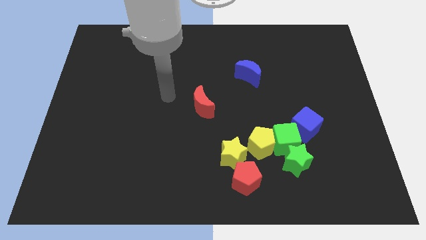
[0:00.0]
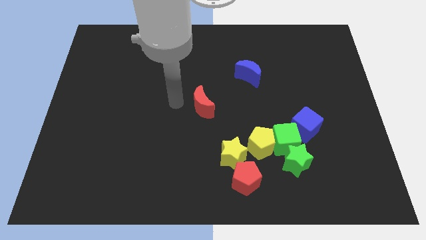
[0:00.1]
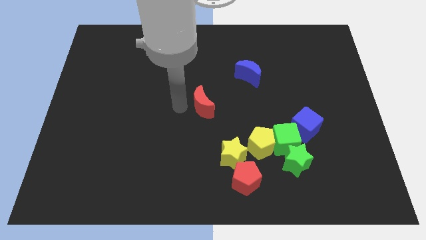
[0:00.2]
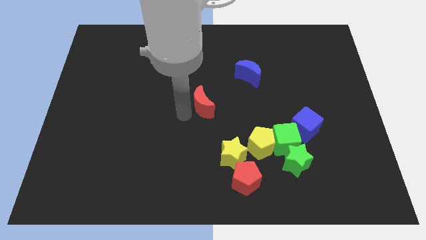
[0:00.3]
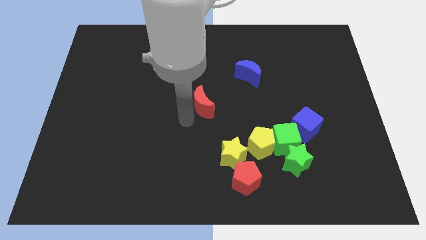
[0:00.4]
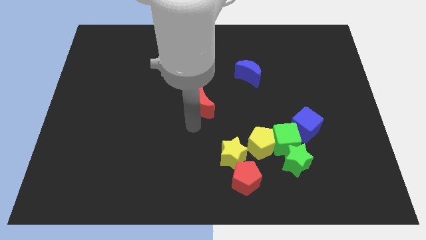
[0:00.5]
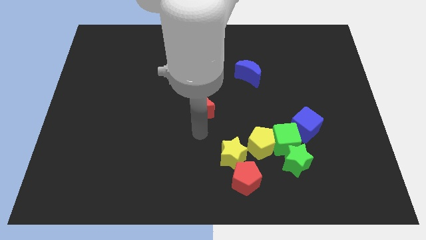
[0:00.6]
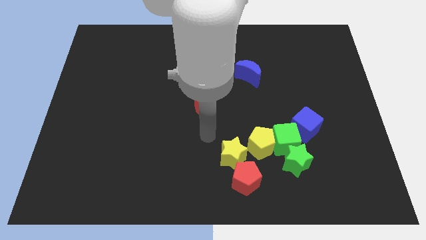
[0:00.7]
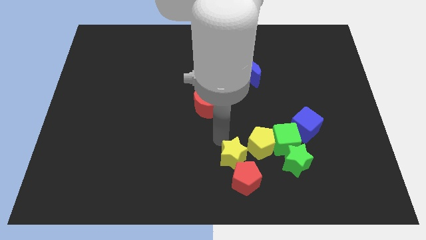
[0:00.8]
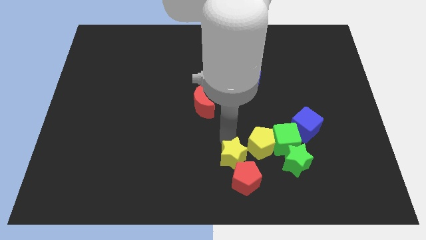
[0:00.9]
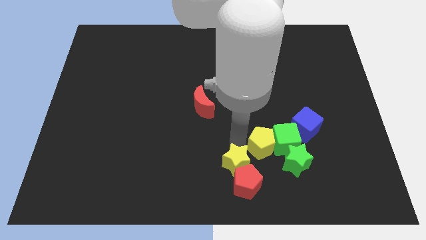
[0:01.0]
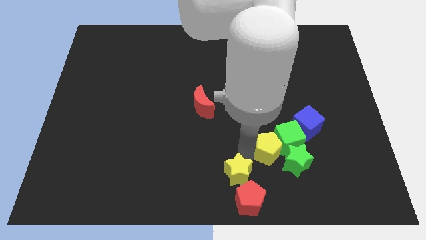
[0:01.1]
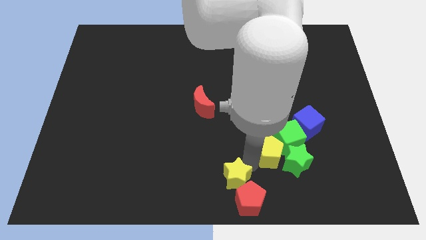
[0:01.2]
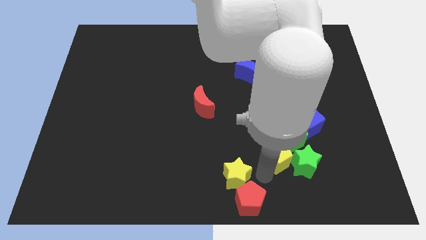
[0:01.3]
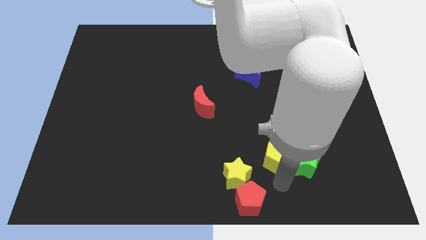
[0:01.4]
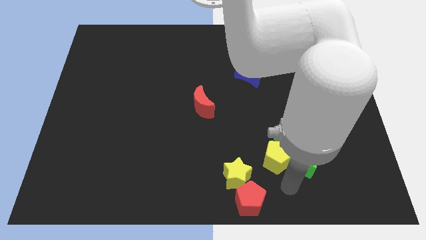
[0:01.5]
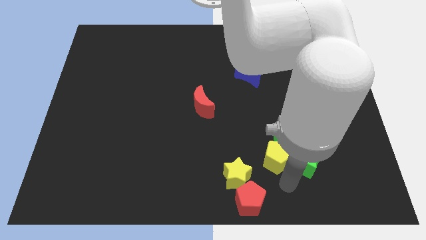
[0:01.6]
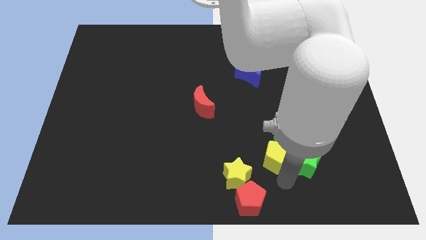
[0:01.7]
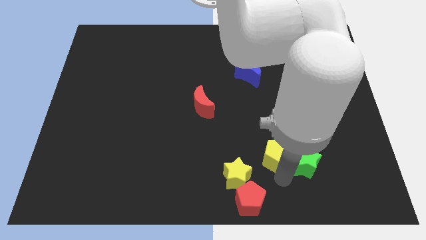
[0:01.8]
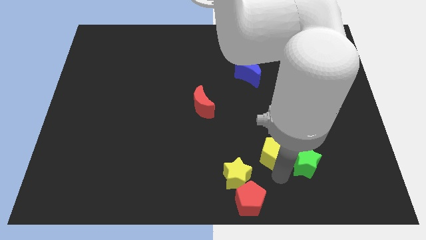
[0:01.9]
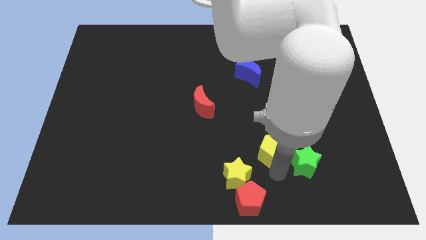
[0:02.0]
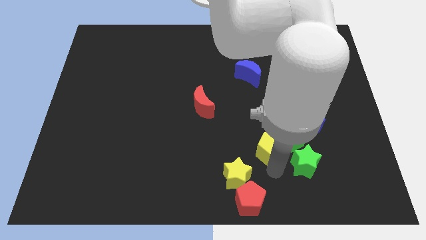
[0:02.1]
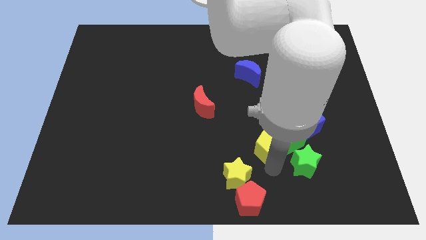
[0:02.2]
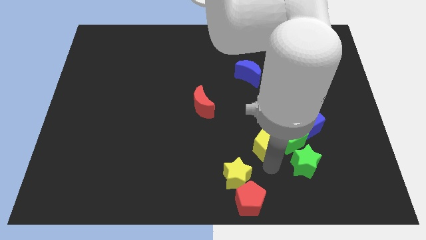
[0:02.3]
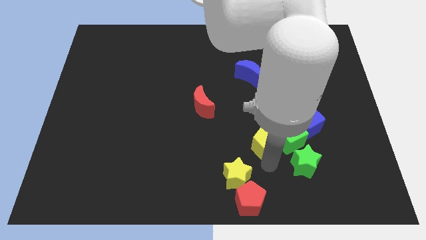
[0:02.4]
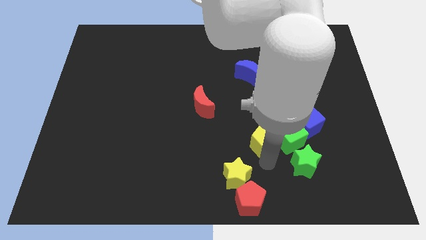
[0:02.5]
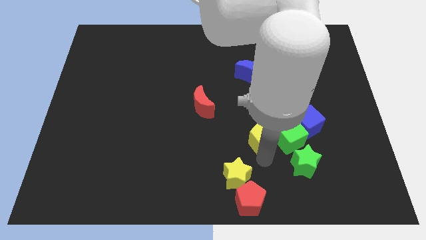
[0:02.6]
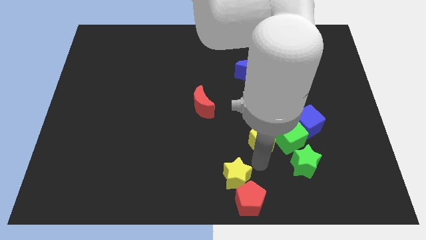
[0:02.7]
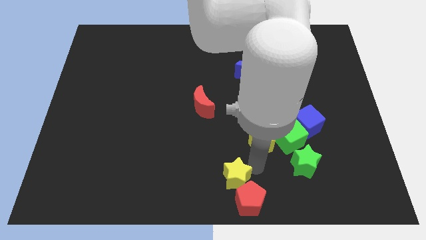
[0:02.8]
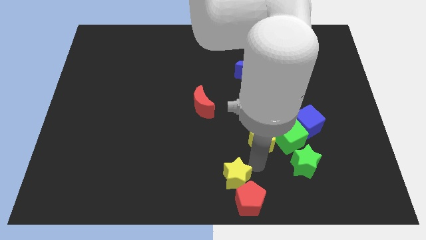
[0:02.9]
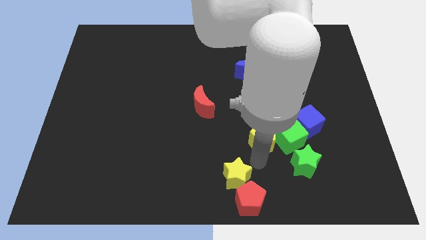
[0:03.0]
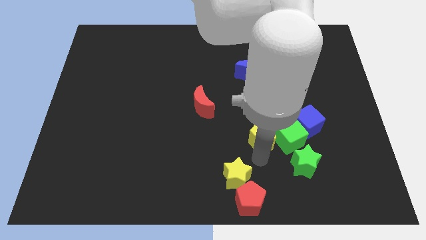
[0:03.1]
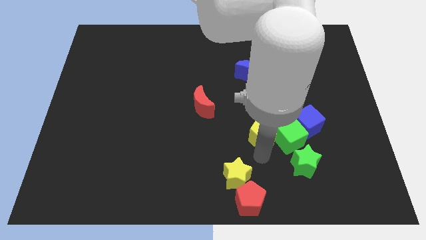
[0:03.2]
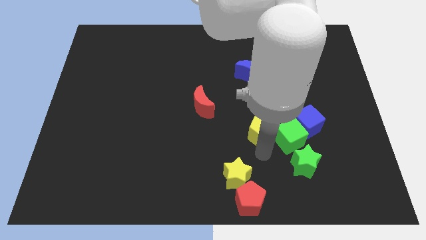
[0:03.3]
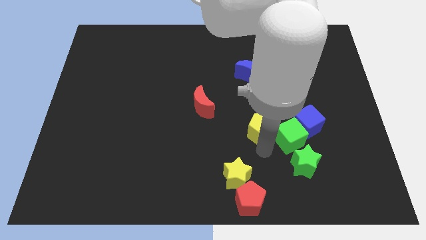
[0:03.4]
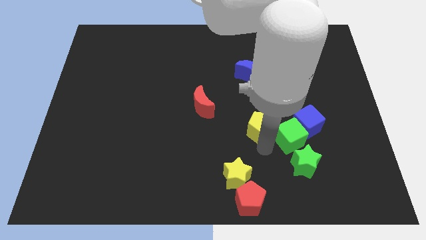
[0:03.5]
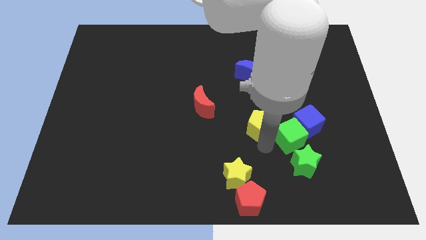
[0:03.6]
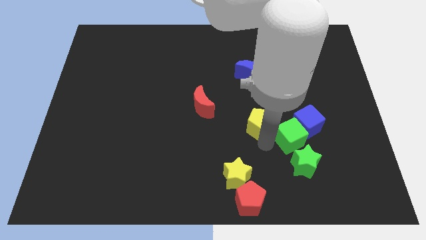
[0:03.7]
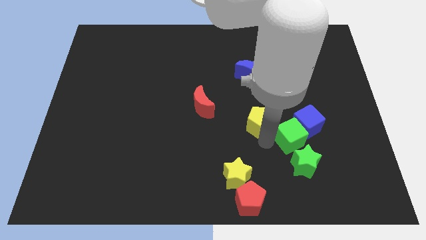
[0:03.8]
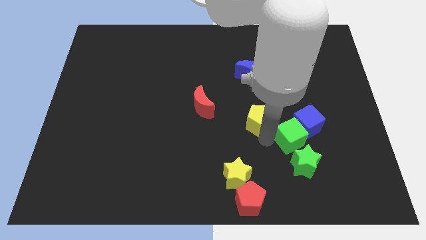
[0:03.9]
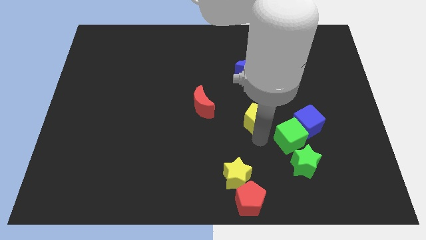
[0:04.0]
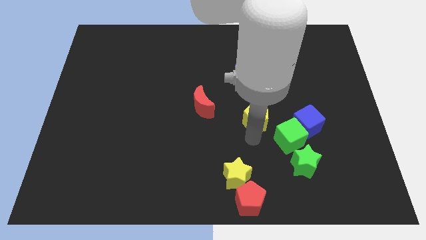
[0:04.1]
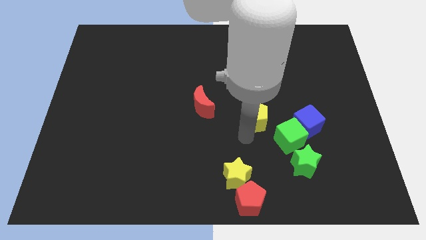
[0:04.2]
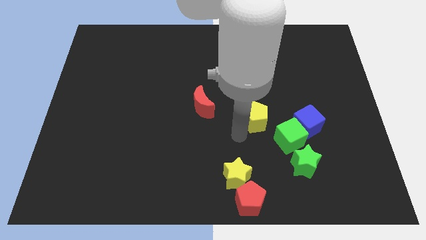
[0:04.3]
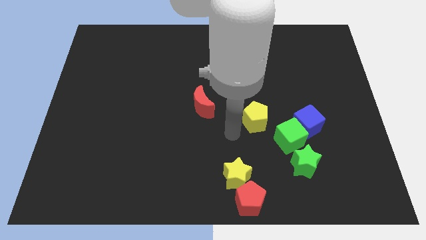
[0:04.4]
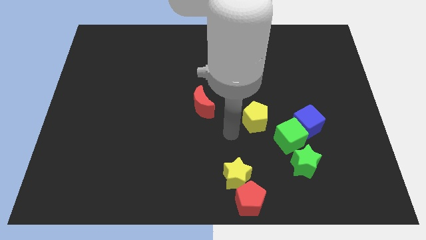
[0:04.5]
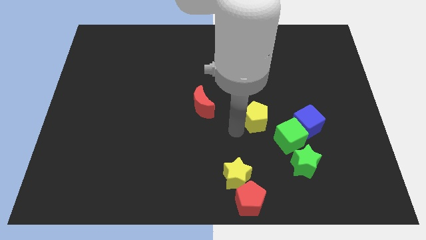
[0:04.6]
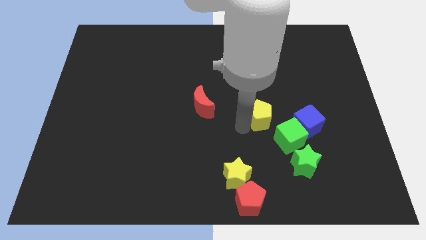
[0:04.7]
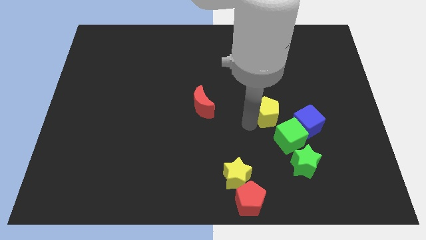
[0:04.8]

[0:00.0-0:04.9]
push the yellow pentagon to the top left side of the blue cube

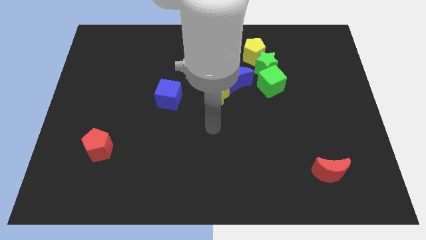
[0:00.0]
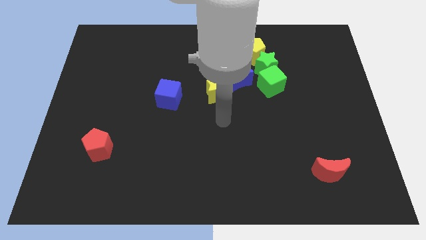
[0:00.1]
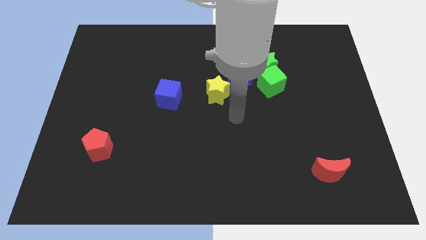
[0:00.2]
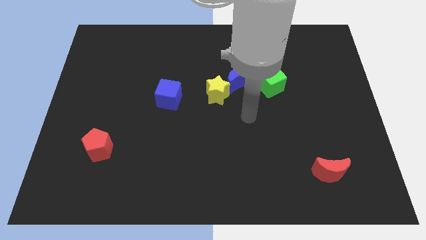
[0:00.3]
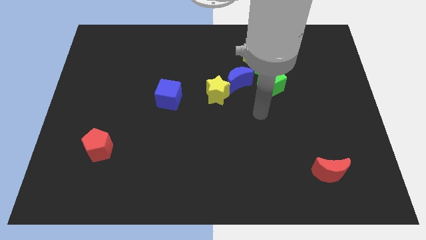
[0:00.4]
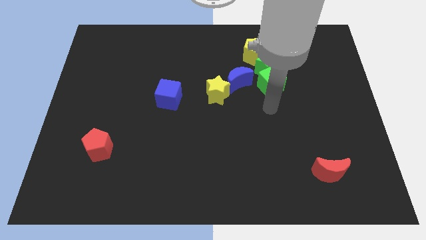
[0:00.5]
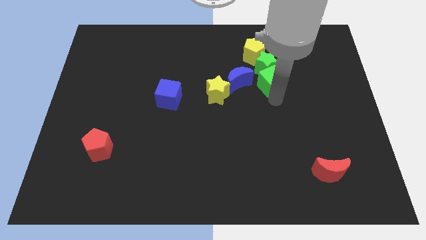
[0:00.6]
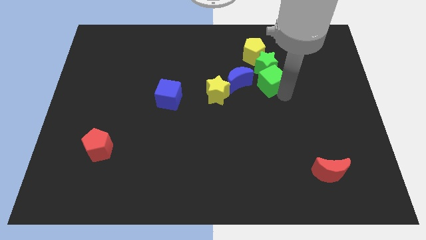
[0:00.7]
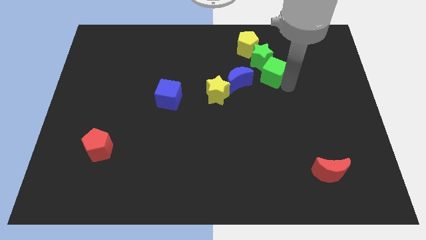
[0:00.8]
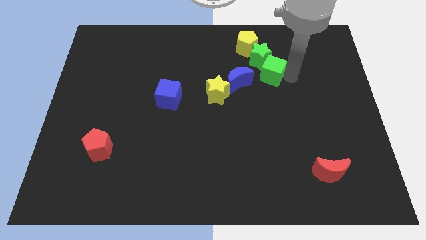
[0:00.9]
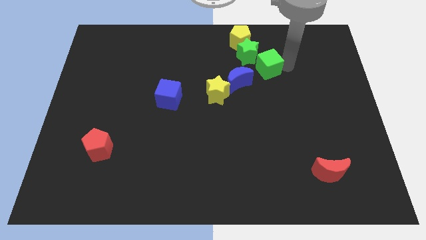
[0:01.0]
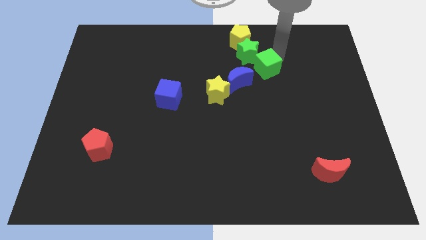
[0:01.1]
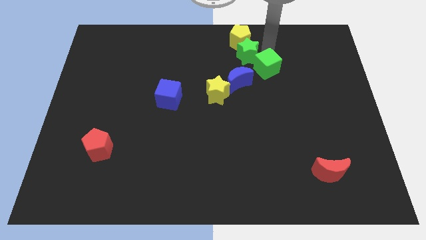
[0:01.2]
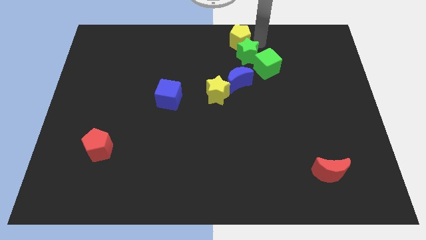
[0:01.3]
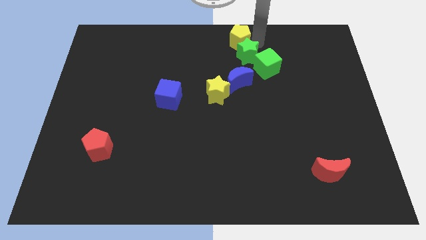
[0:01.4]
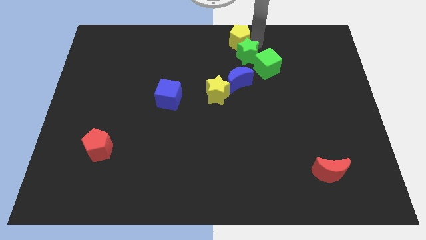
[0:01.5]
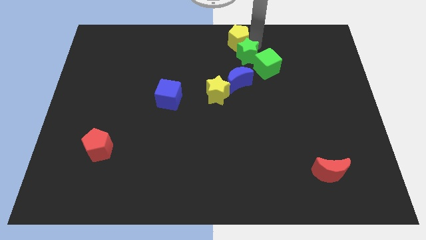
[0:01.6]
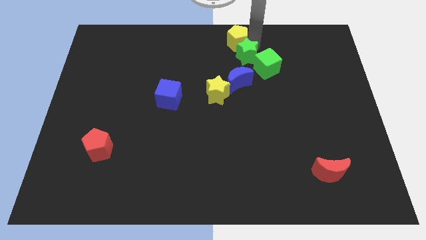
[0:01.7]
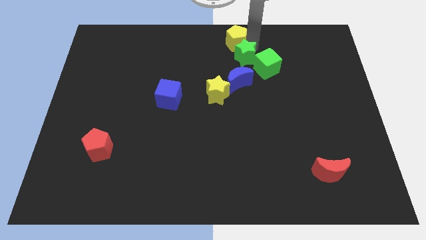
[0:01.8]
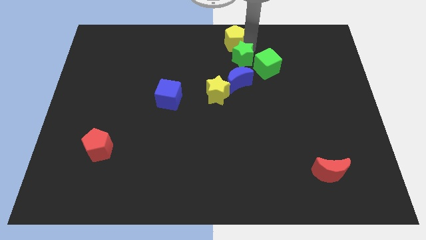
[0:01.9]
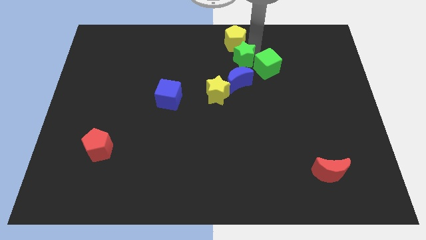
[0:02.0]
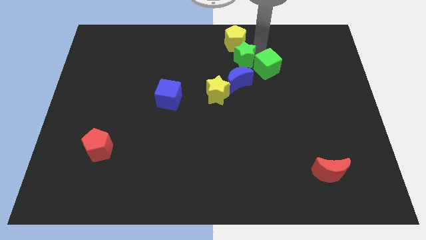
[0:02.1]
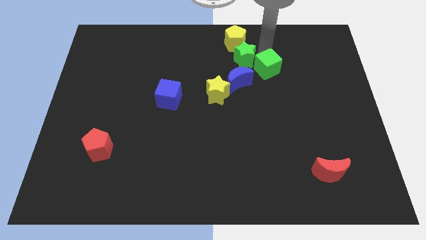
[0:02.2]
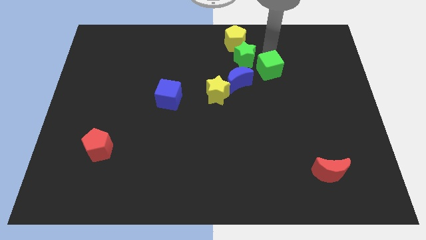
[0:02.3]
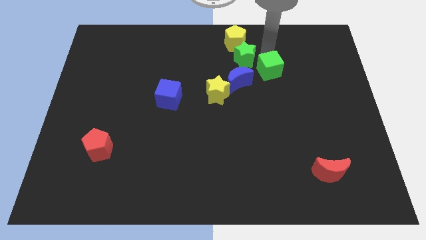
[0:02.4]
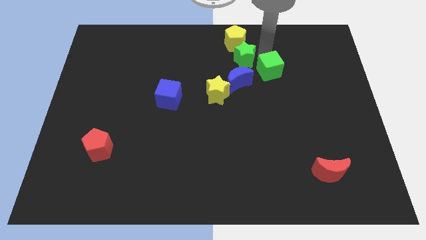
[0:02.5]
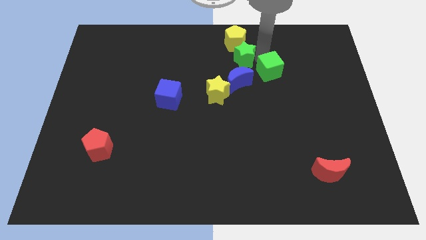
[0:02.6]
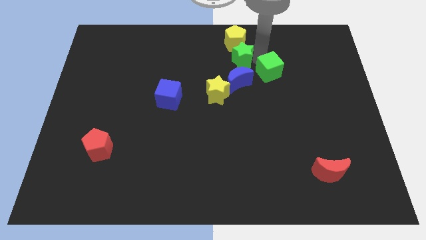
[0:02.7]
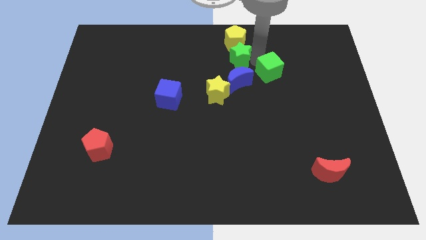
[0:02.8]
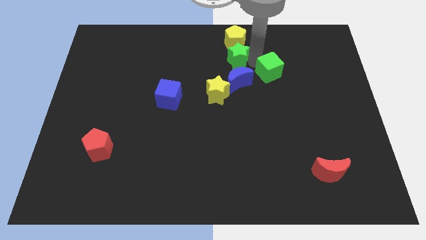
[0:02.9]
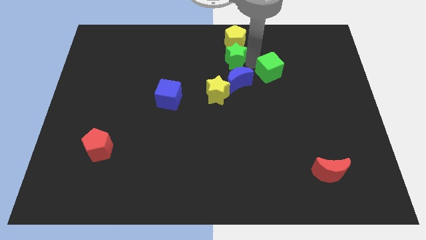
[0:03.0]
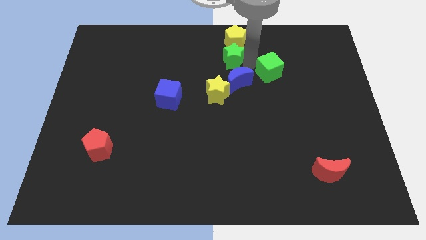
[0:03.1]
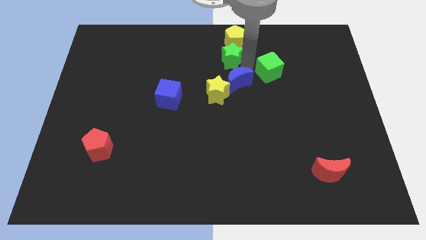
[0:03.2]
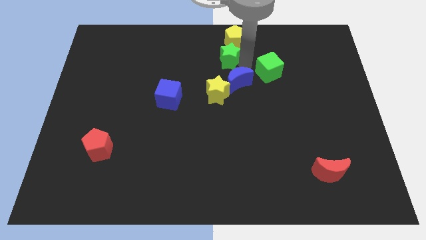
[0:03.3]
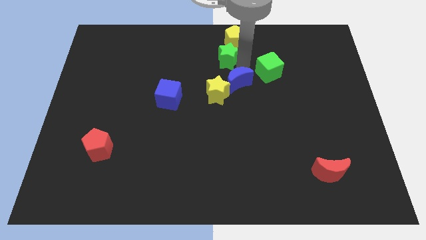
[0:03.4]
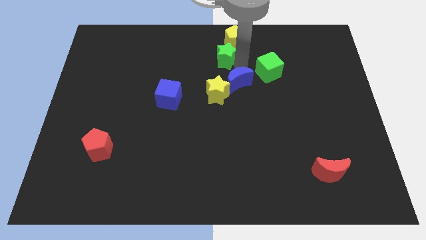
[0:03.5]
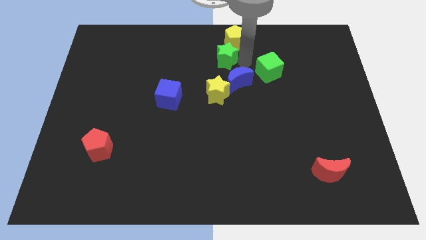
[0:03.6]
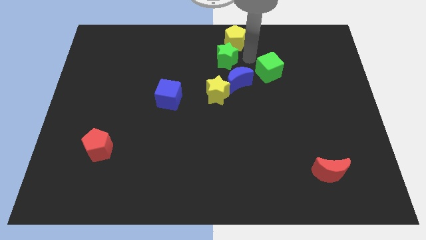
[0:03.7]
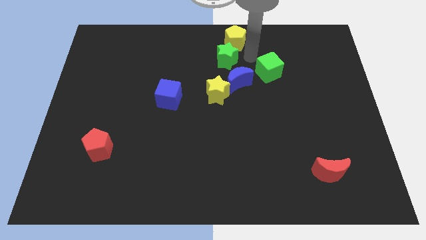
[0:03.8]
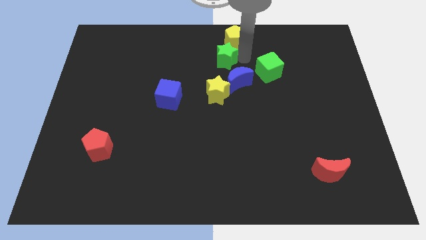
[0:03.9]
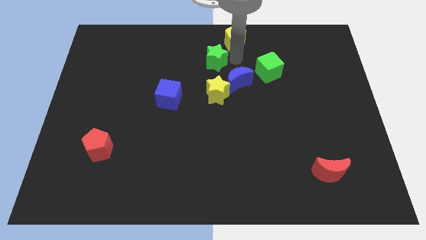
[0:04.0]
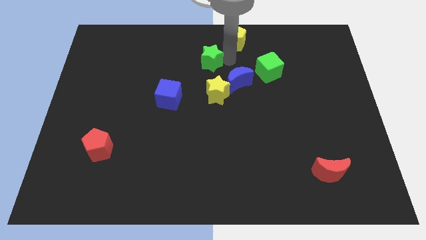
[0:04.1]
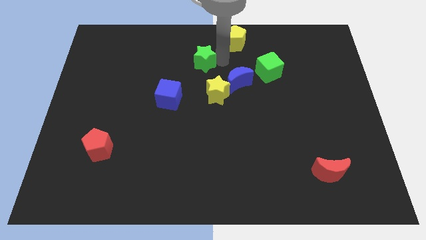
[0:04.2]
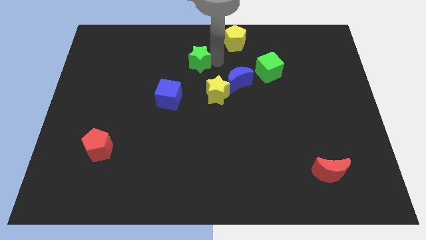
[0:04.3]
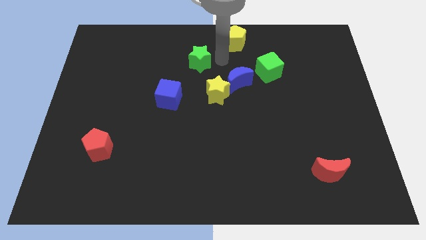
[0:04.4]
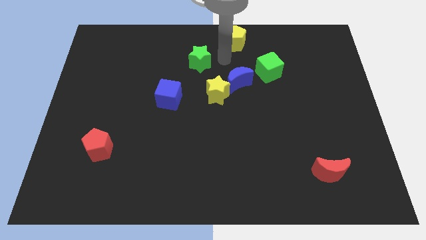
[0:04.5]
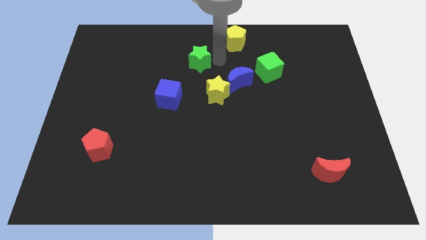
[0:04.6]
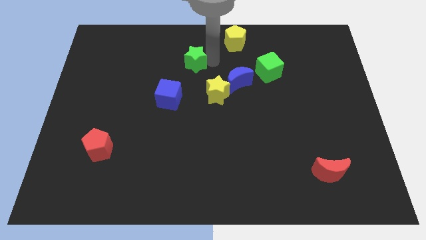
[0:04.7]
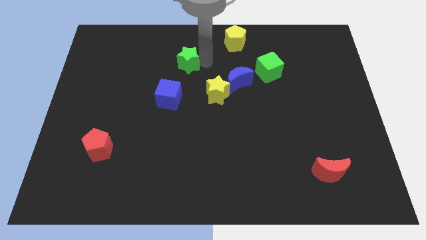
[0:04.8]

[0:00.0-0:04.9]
slide the green star to the top of the blue cube
